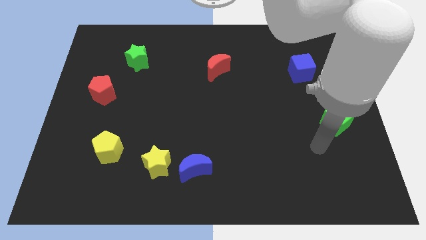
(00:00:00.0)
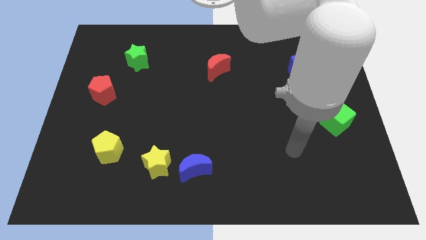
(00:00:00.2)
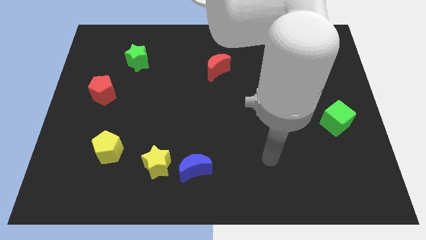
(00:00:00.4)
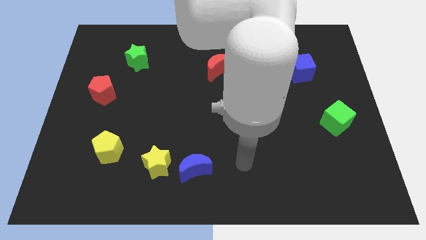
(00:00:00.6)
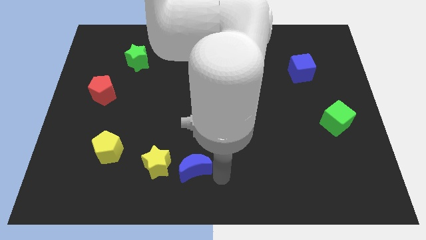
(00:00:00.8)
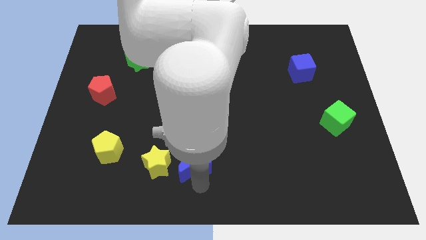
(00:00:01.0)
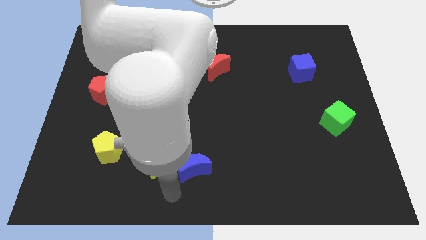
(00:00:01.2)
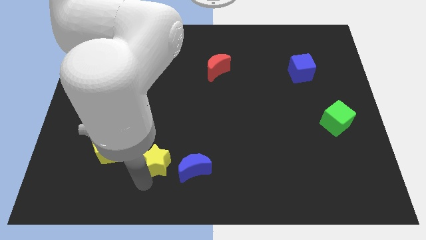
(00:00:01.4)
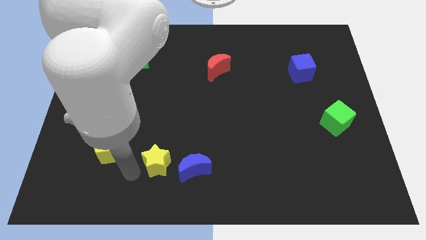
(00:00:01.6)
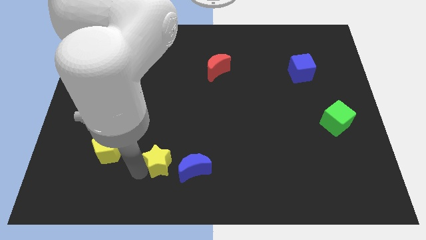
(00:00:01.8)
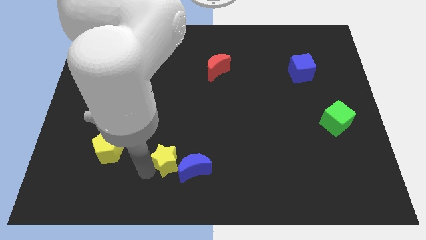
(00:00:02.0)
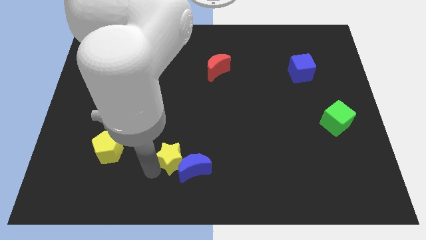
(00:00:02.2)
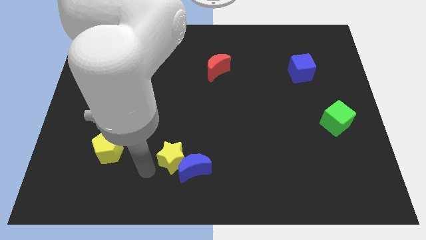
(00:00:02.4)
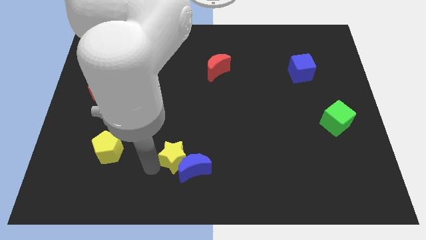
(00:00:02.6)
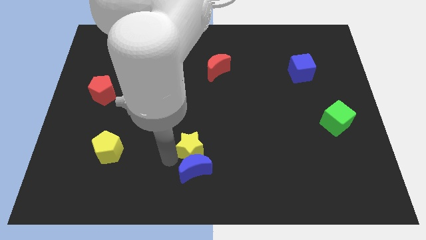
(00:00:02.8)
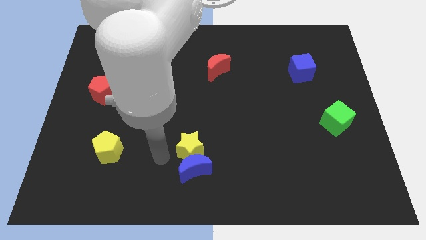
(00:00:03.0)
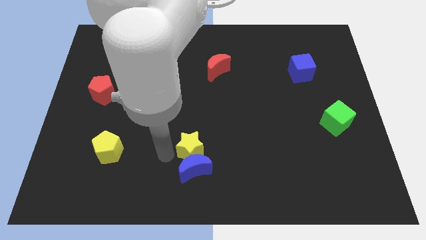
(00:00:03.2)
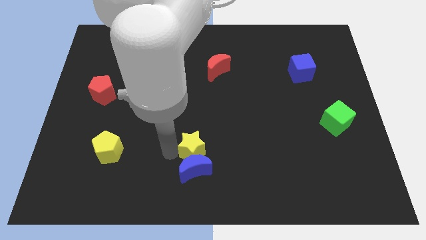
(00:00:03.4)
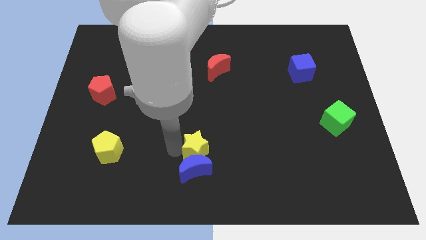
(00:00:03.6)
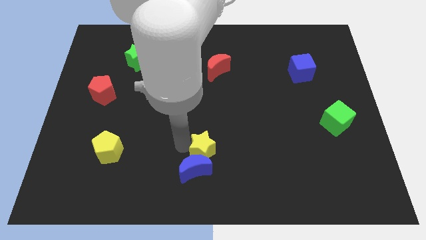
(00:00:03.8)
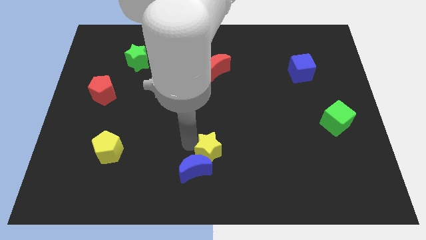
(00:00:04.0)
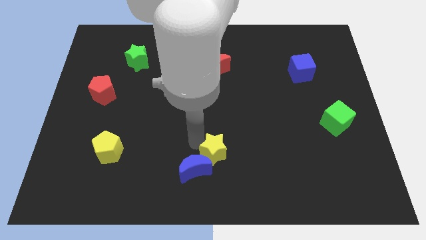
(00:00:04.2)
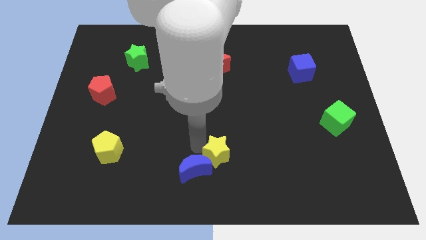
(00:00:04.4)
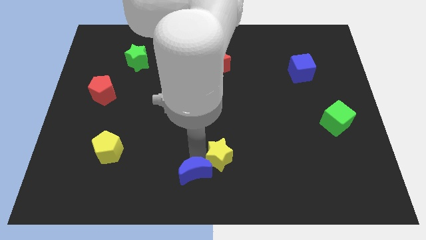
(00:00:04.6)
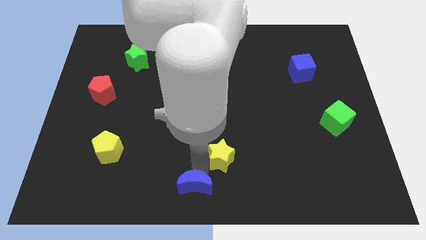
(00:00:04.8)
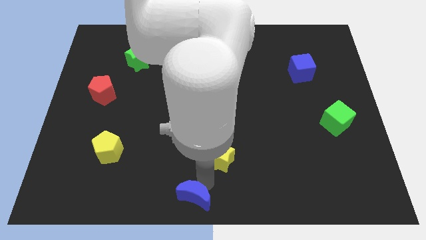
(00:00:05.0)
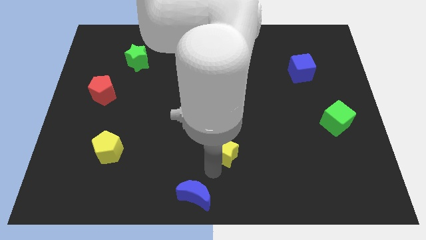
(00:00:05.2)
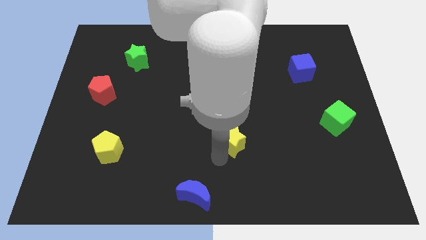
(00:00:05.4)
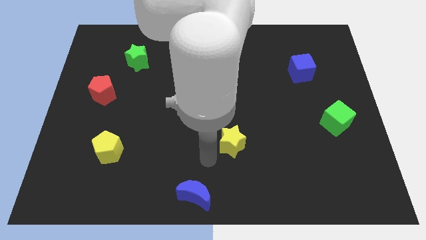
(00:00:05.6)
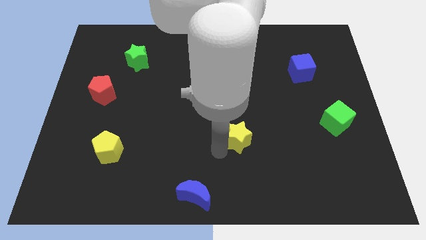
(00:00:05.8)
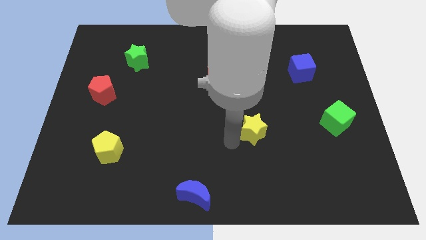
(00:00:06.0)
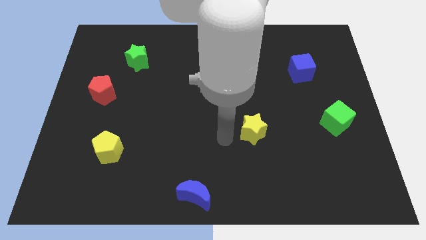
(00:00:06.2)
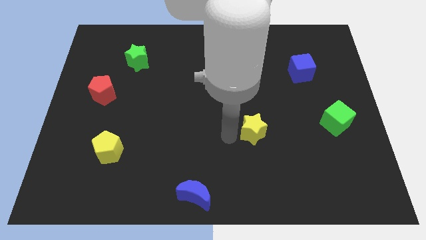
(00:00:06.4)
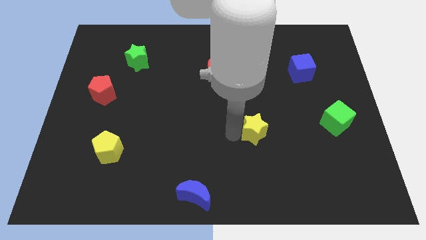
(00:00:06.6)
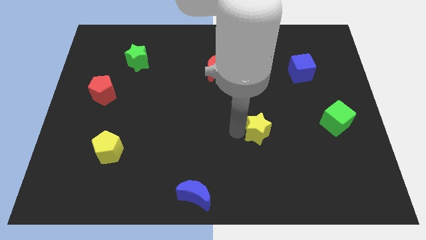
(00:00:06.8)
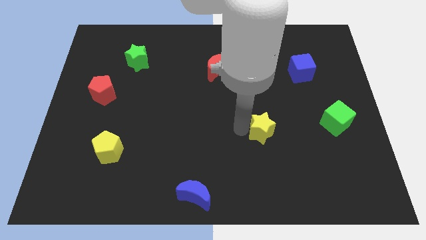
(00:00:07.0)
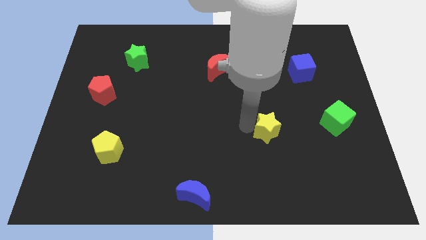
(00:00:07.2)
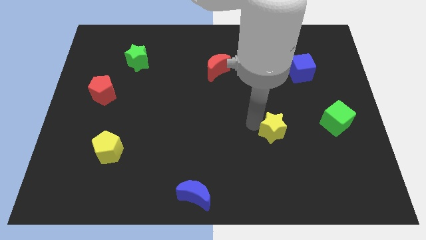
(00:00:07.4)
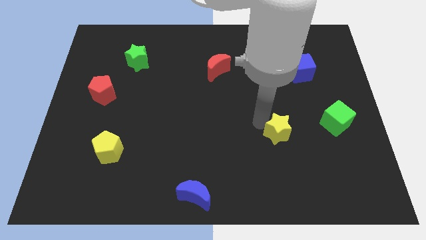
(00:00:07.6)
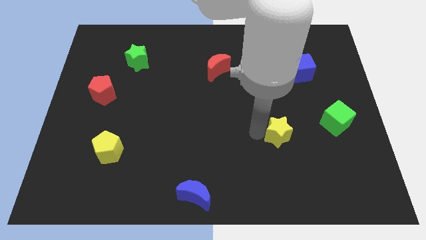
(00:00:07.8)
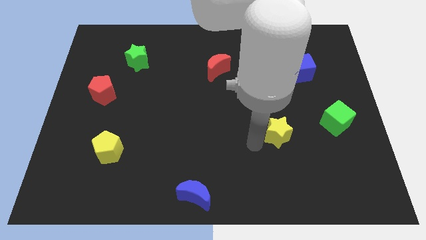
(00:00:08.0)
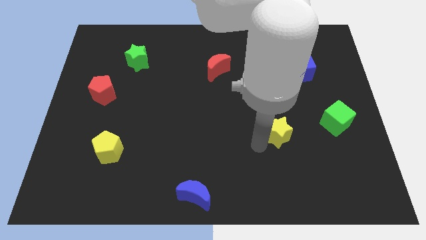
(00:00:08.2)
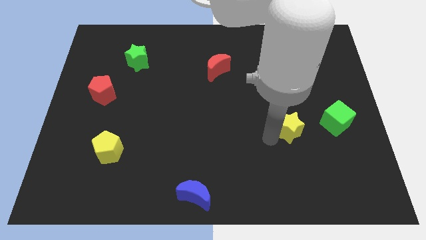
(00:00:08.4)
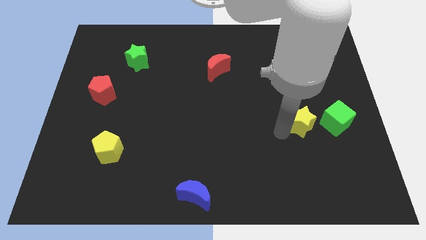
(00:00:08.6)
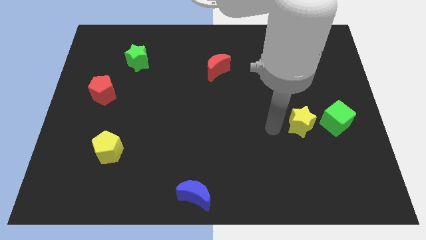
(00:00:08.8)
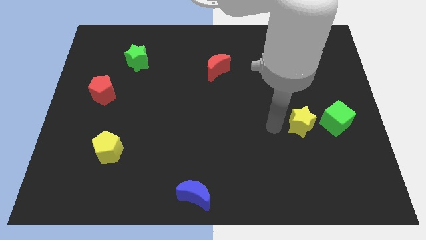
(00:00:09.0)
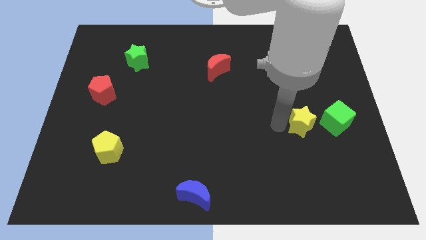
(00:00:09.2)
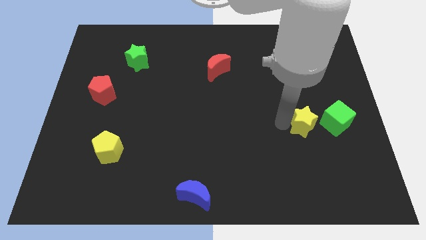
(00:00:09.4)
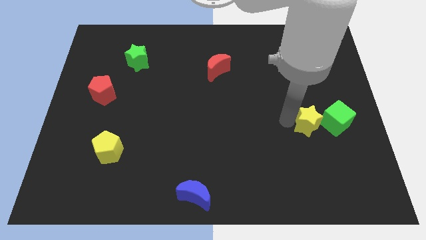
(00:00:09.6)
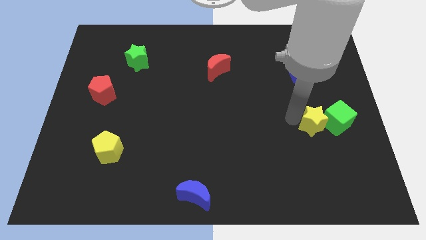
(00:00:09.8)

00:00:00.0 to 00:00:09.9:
slide the yellow star next to the green cube

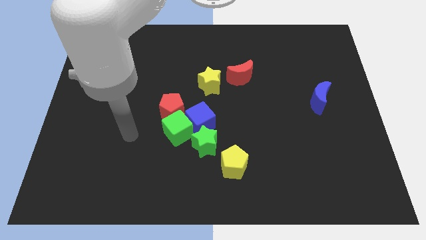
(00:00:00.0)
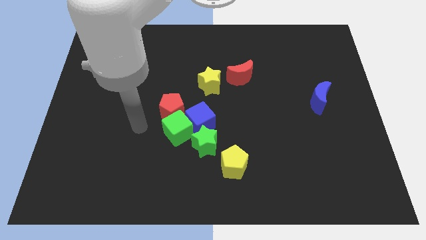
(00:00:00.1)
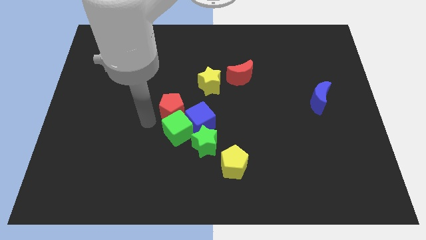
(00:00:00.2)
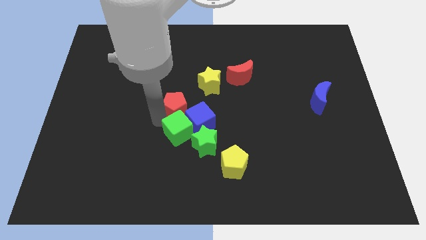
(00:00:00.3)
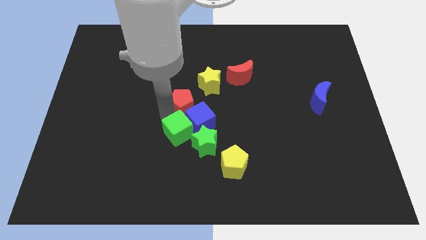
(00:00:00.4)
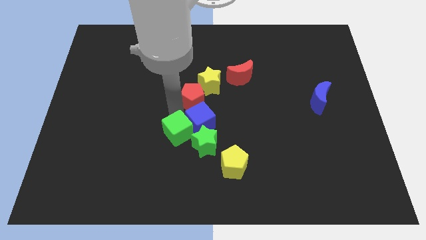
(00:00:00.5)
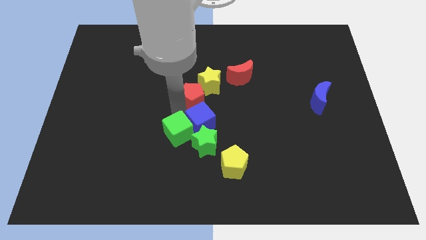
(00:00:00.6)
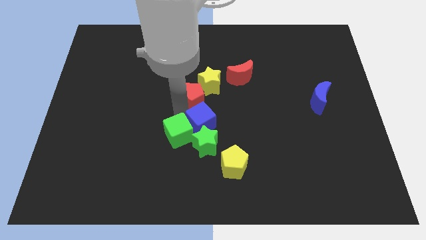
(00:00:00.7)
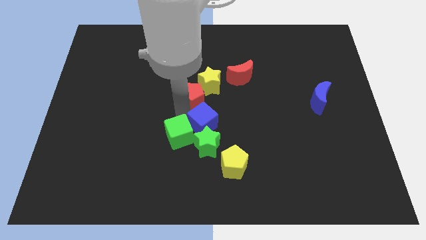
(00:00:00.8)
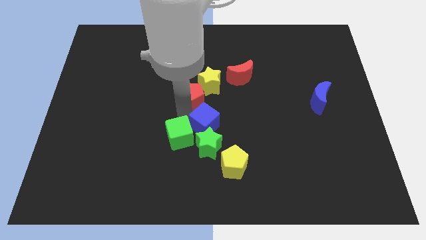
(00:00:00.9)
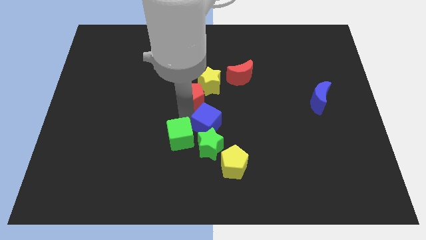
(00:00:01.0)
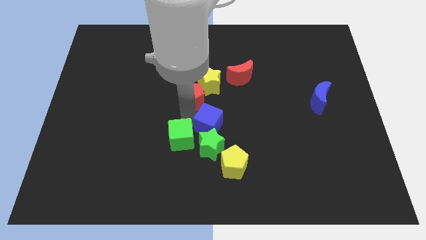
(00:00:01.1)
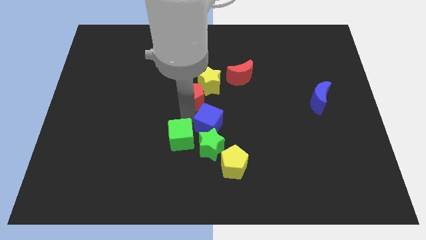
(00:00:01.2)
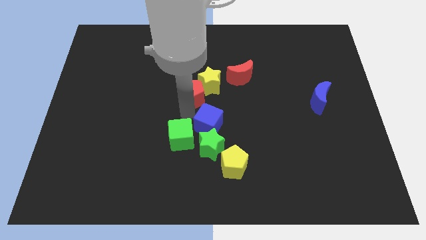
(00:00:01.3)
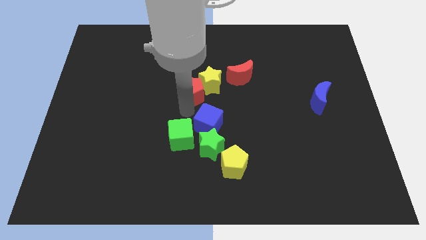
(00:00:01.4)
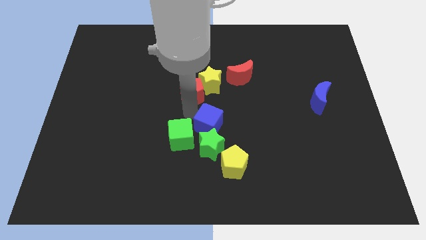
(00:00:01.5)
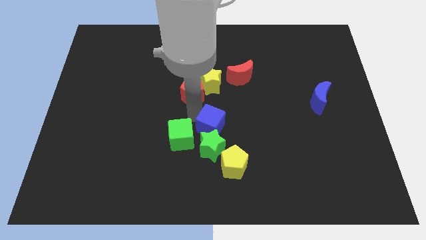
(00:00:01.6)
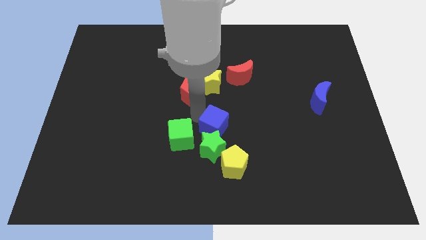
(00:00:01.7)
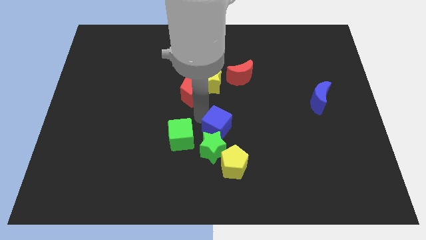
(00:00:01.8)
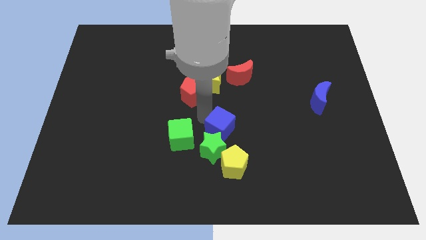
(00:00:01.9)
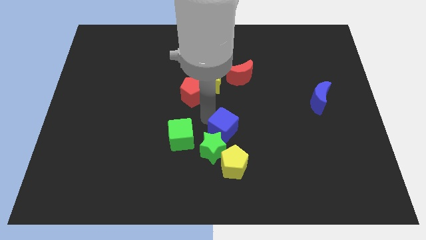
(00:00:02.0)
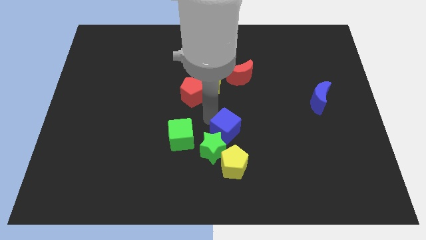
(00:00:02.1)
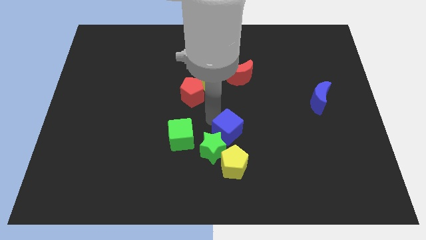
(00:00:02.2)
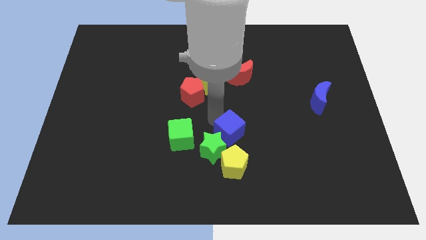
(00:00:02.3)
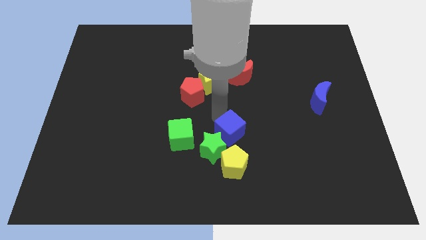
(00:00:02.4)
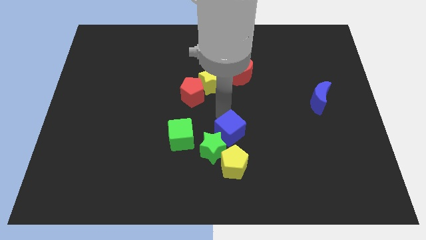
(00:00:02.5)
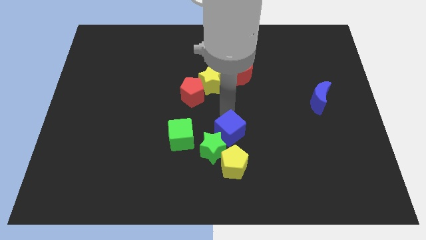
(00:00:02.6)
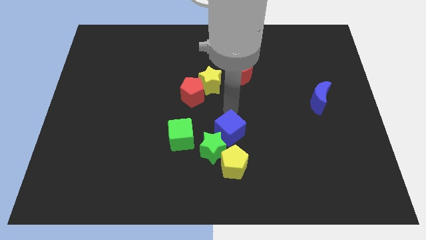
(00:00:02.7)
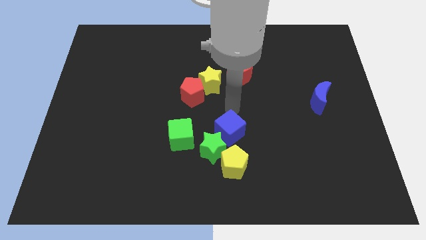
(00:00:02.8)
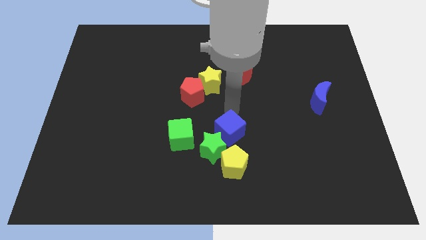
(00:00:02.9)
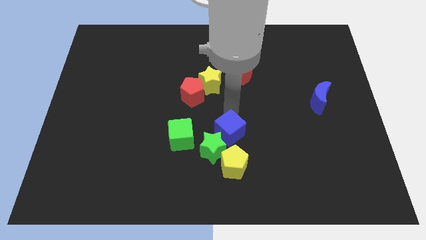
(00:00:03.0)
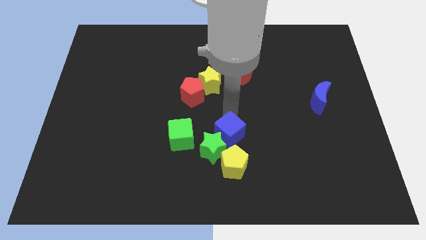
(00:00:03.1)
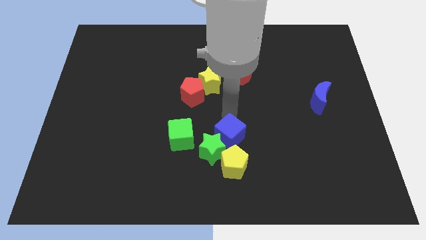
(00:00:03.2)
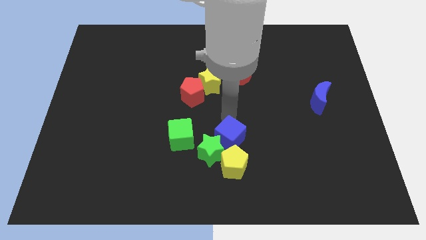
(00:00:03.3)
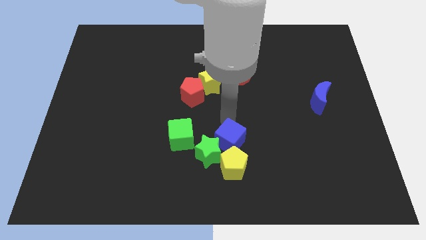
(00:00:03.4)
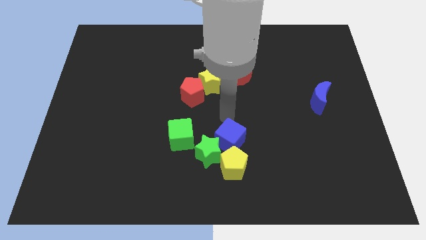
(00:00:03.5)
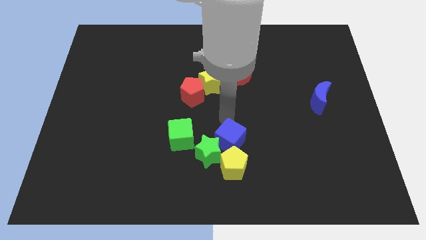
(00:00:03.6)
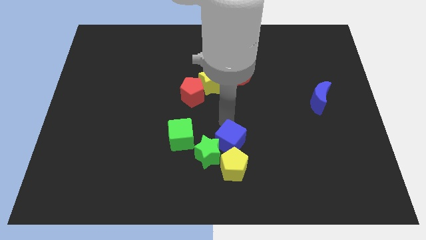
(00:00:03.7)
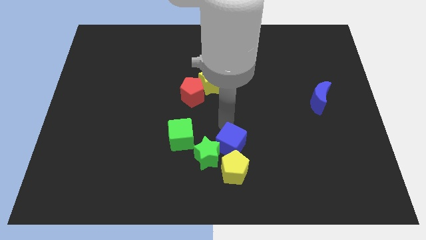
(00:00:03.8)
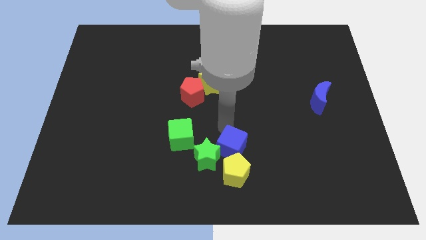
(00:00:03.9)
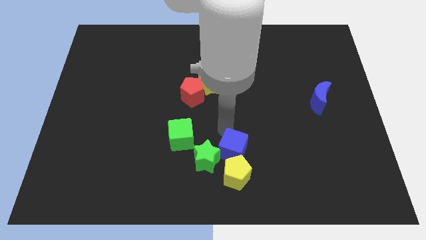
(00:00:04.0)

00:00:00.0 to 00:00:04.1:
push the blue cube to the yellow pentagon
